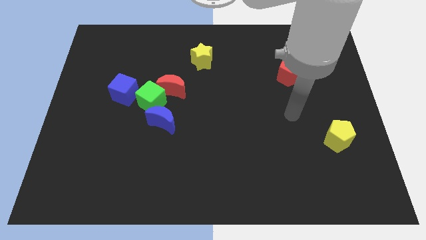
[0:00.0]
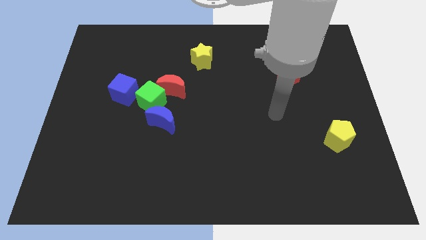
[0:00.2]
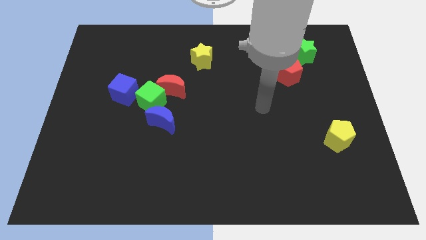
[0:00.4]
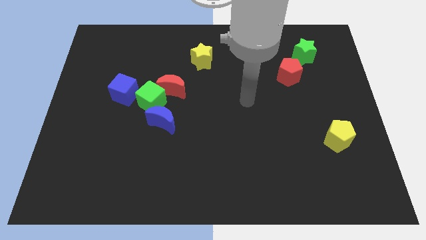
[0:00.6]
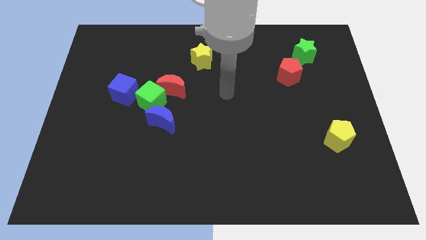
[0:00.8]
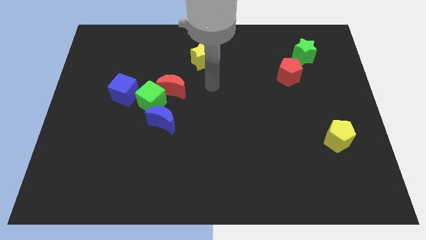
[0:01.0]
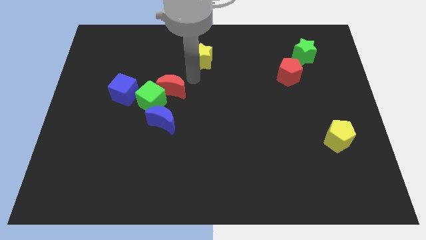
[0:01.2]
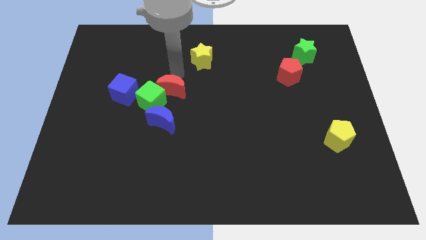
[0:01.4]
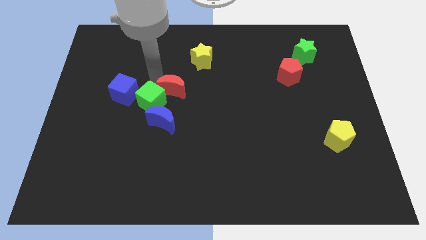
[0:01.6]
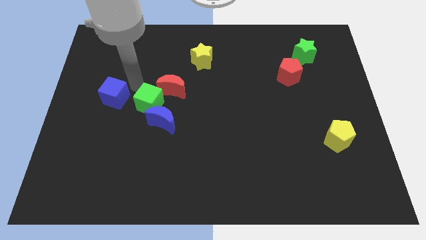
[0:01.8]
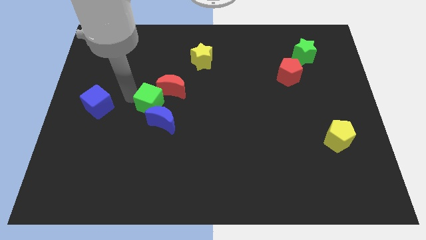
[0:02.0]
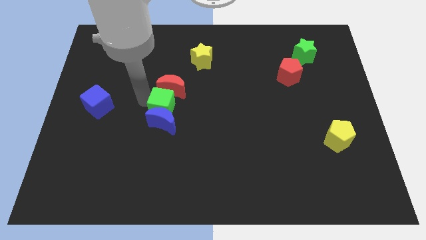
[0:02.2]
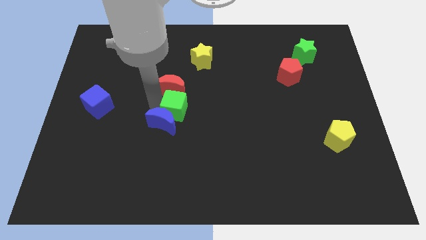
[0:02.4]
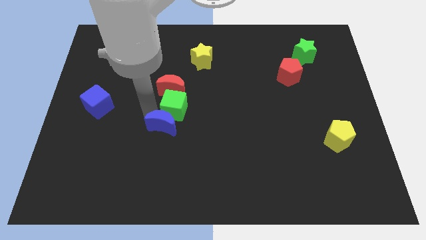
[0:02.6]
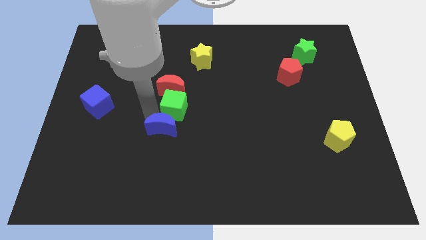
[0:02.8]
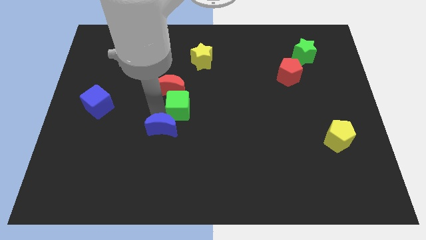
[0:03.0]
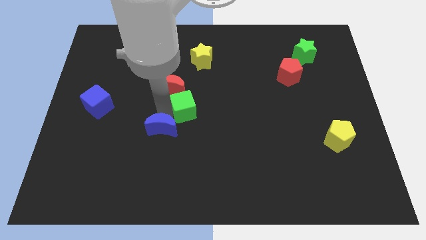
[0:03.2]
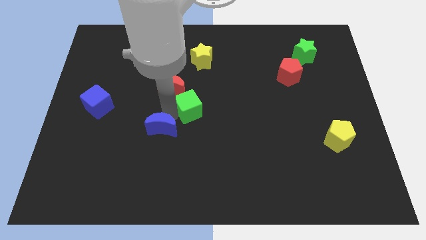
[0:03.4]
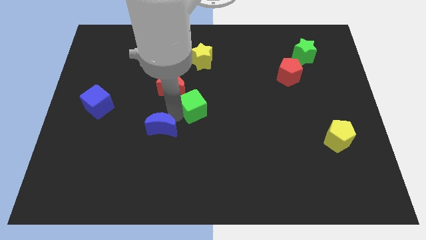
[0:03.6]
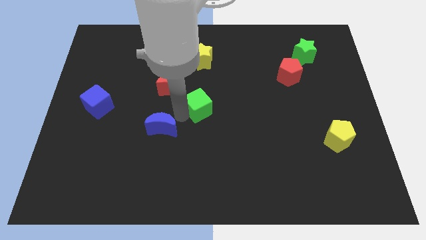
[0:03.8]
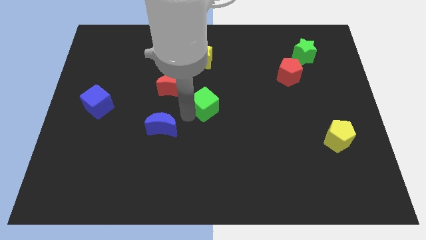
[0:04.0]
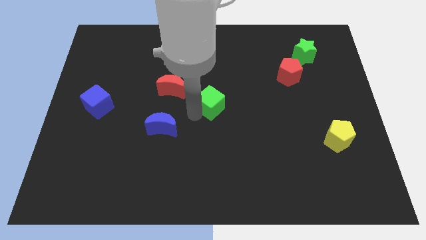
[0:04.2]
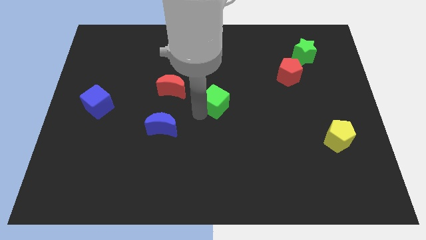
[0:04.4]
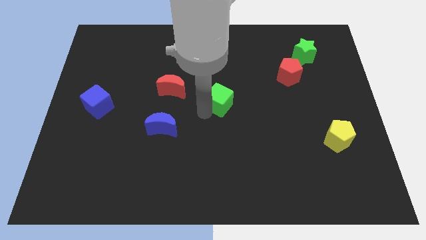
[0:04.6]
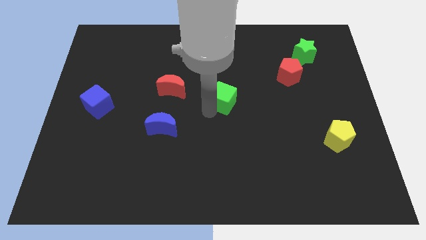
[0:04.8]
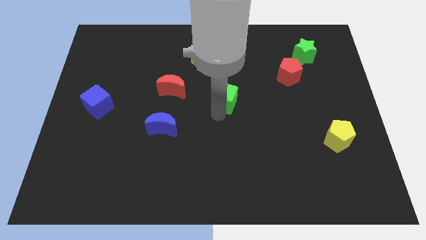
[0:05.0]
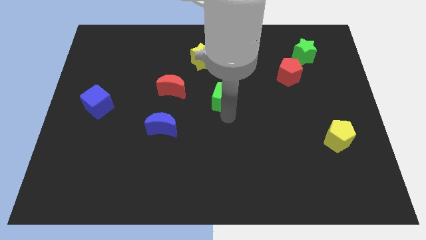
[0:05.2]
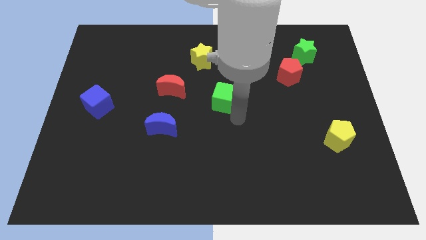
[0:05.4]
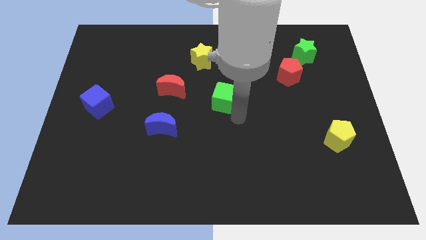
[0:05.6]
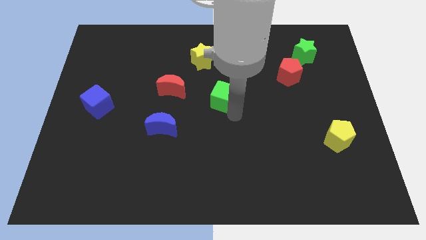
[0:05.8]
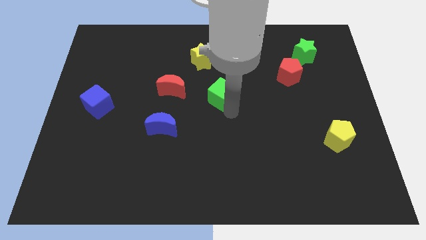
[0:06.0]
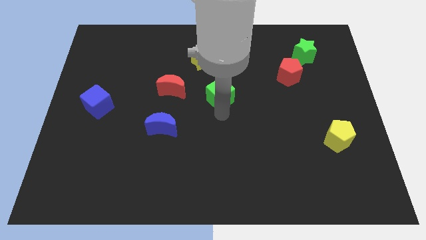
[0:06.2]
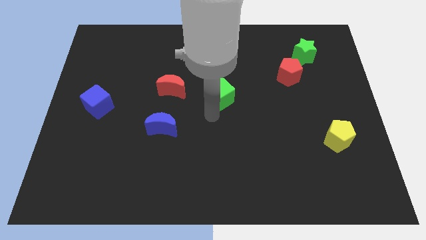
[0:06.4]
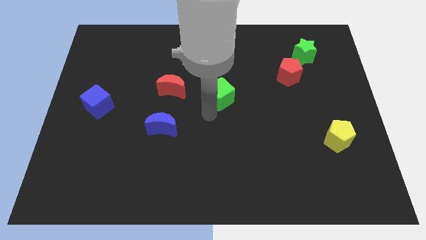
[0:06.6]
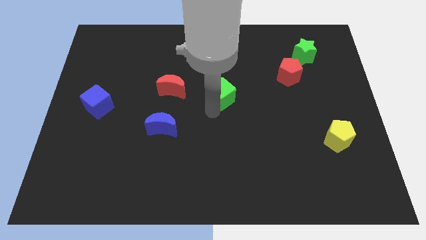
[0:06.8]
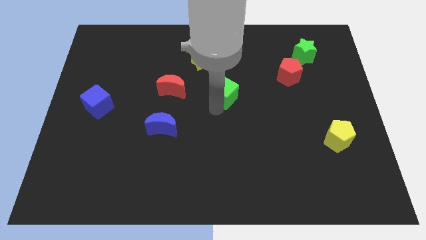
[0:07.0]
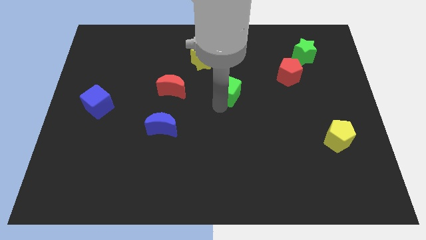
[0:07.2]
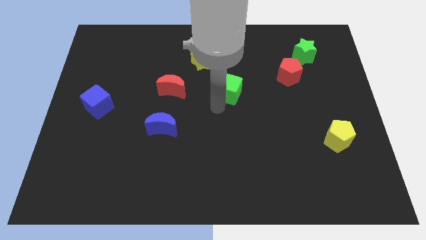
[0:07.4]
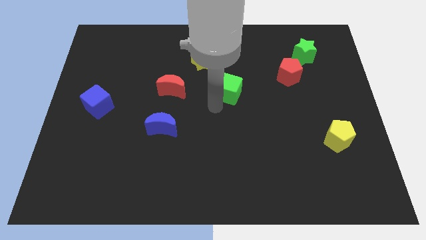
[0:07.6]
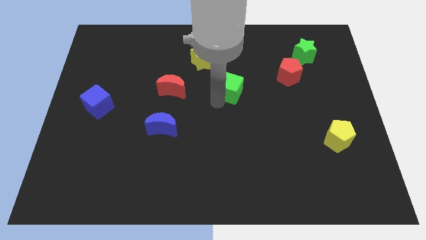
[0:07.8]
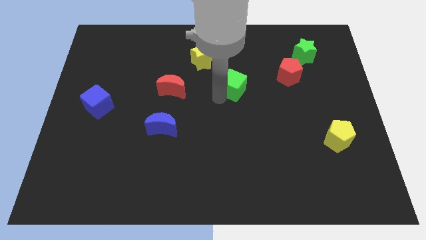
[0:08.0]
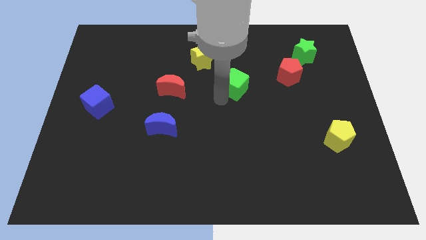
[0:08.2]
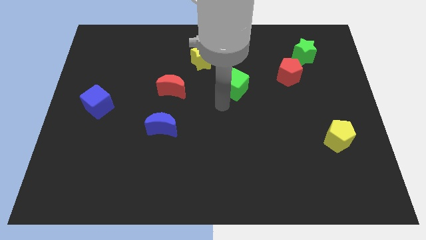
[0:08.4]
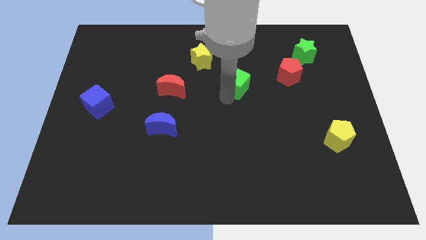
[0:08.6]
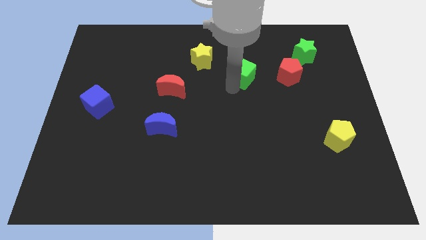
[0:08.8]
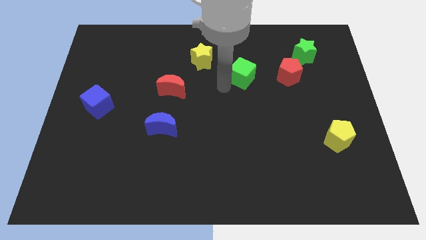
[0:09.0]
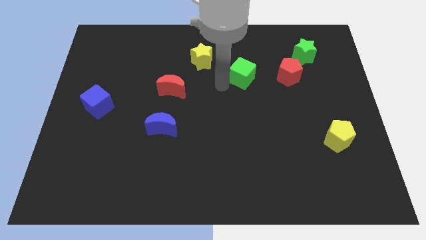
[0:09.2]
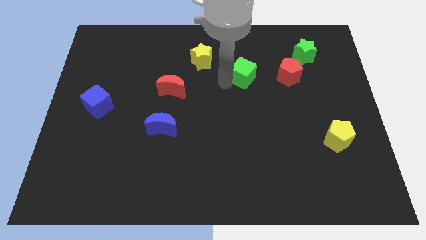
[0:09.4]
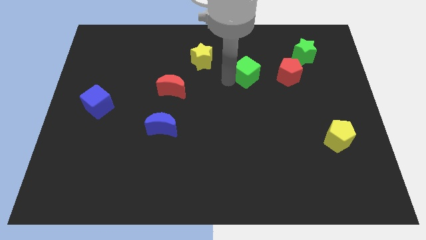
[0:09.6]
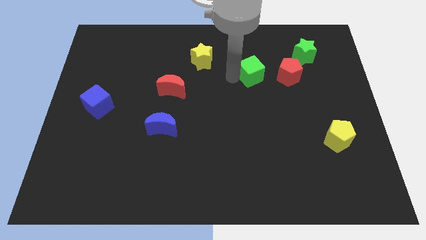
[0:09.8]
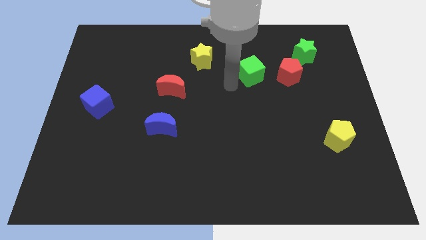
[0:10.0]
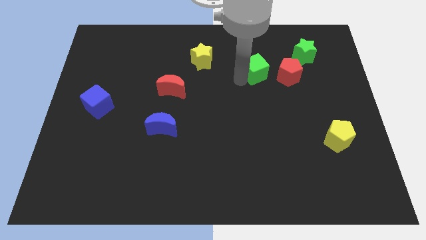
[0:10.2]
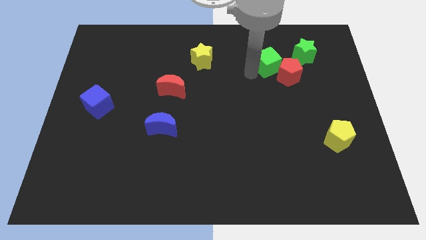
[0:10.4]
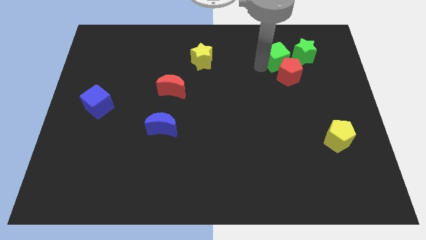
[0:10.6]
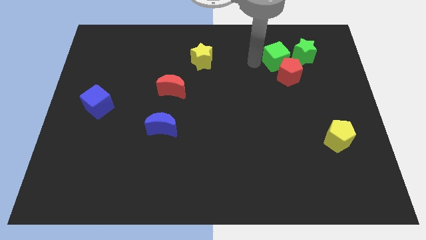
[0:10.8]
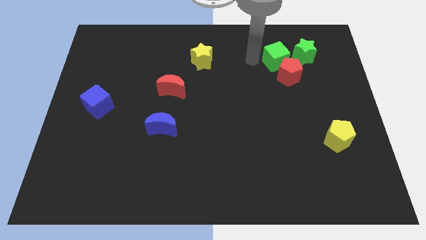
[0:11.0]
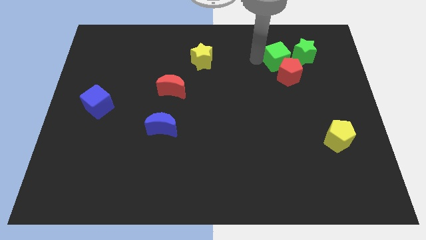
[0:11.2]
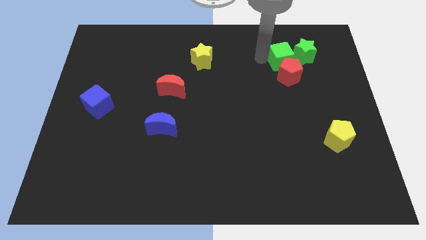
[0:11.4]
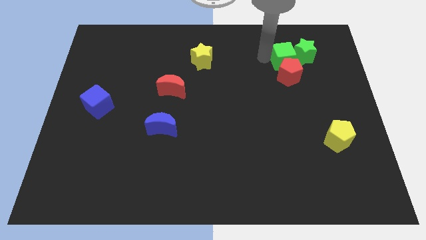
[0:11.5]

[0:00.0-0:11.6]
push the green cube to the green star

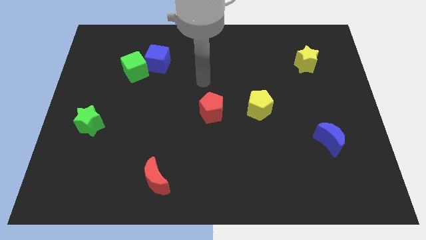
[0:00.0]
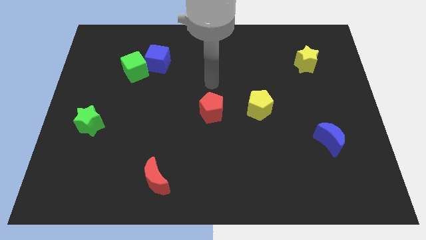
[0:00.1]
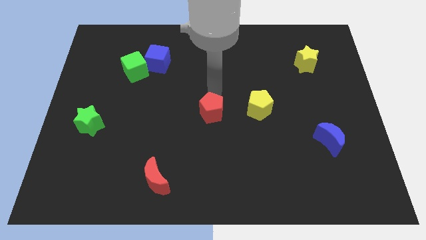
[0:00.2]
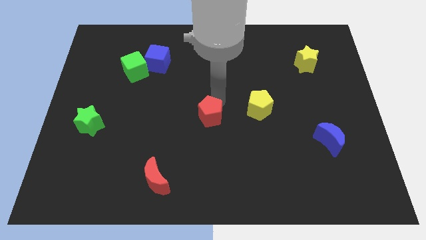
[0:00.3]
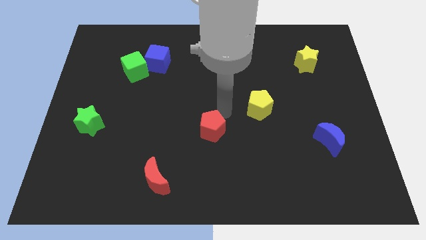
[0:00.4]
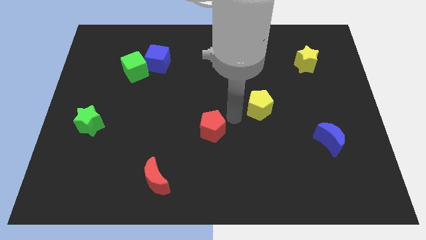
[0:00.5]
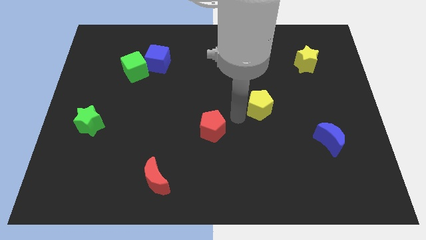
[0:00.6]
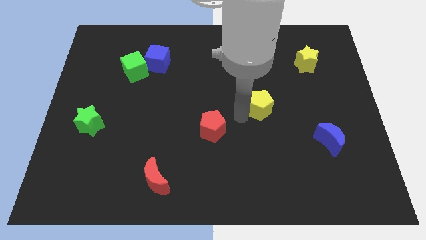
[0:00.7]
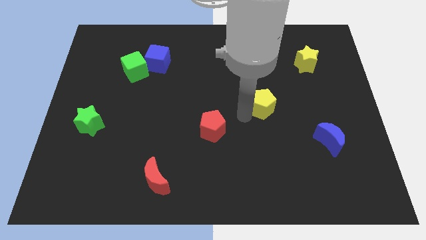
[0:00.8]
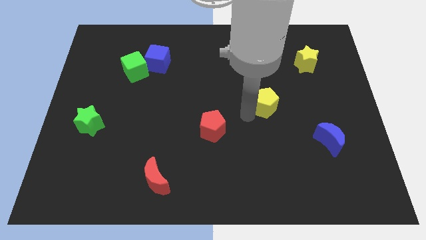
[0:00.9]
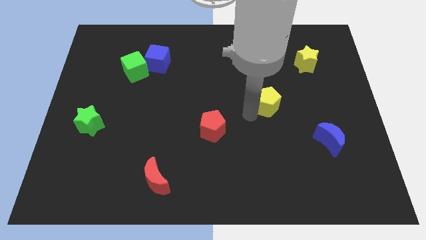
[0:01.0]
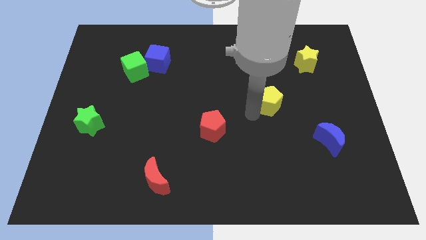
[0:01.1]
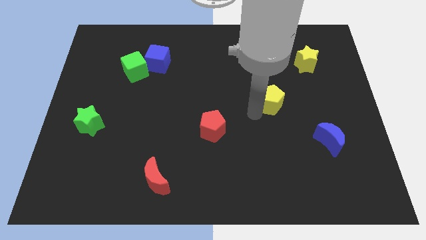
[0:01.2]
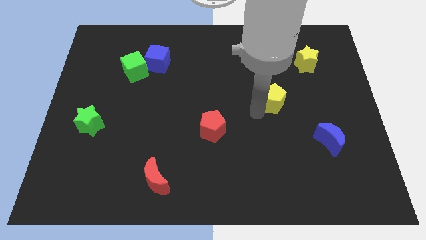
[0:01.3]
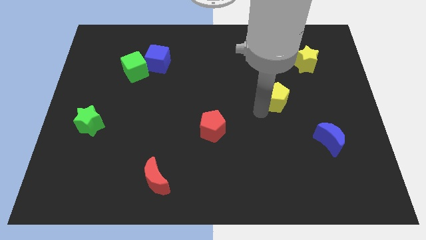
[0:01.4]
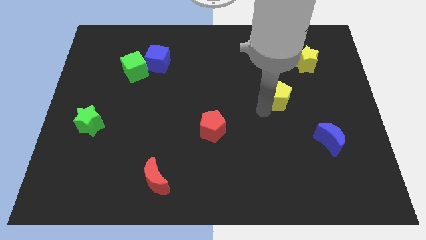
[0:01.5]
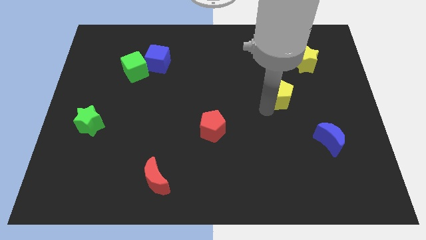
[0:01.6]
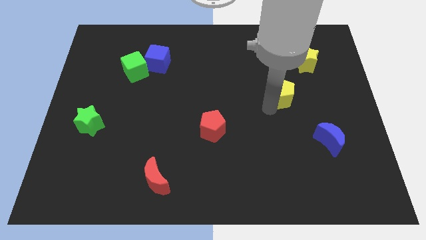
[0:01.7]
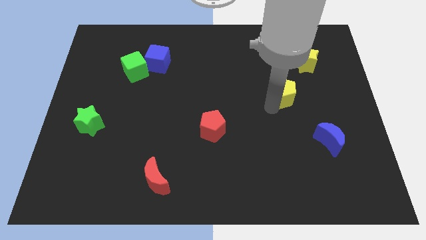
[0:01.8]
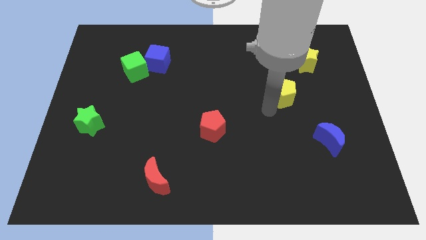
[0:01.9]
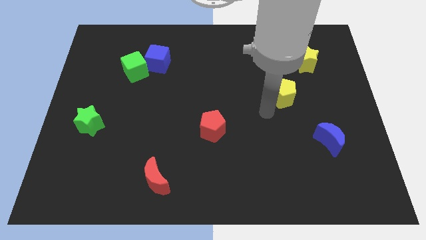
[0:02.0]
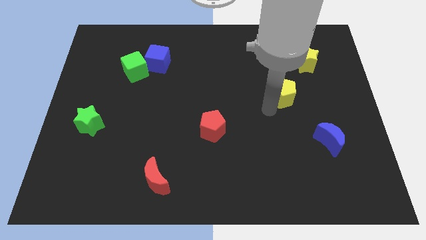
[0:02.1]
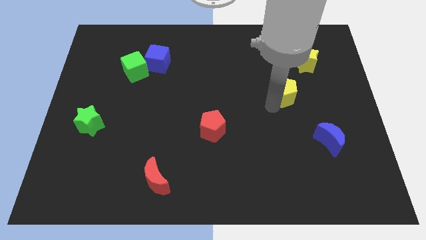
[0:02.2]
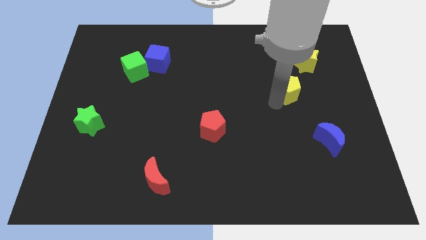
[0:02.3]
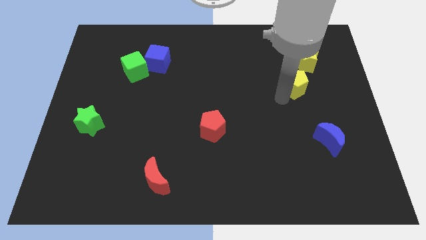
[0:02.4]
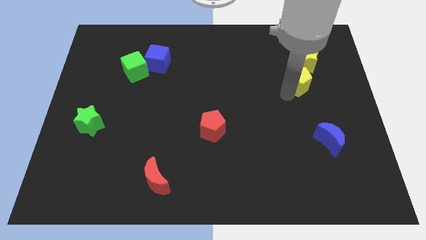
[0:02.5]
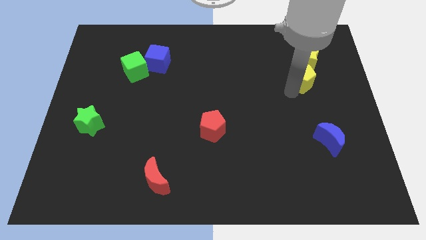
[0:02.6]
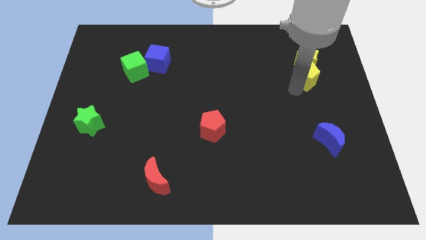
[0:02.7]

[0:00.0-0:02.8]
push the yellow pentagon next to the yellow star
